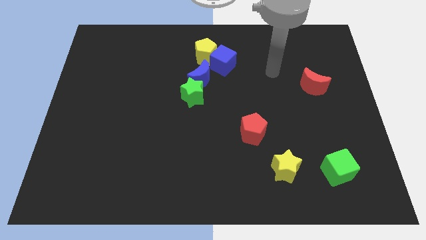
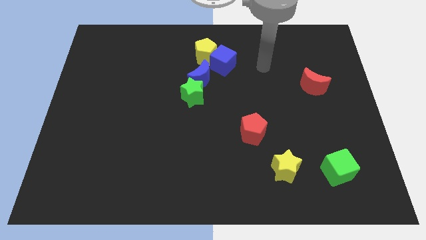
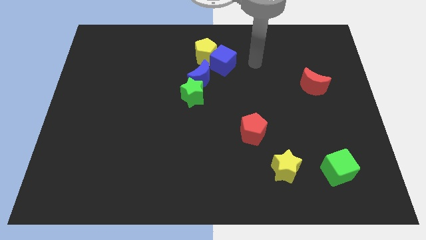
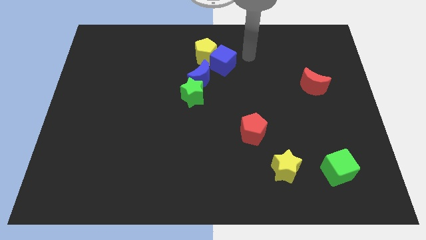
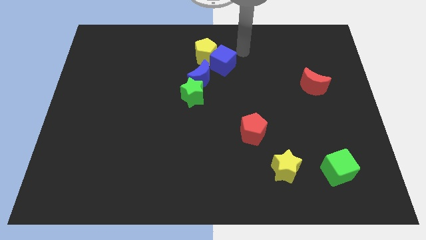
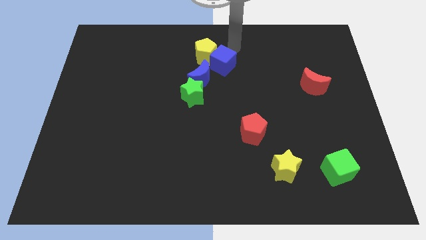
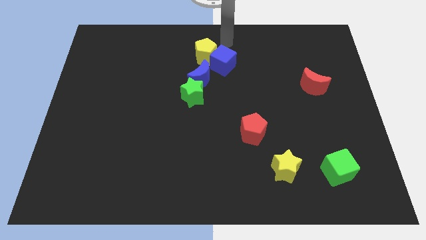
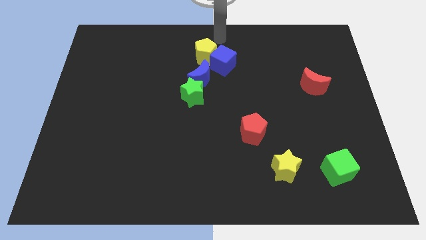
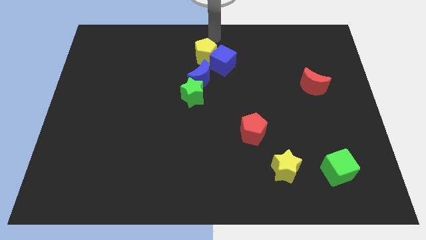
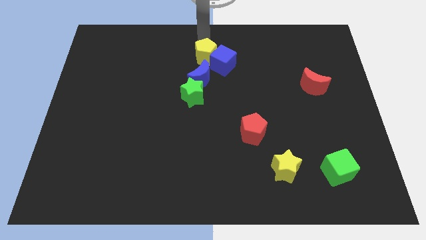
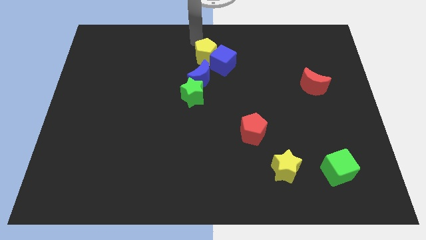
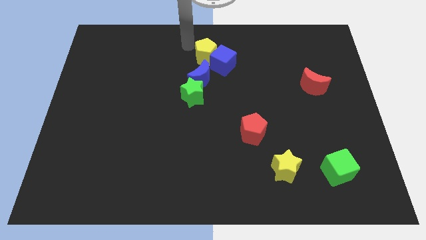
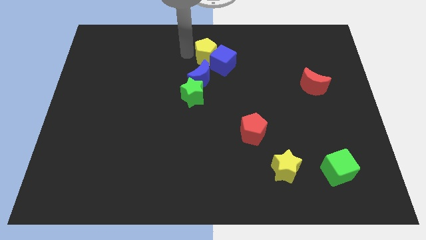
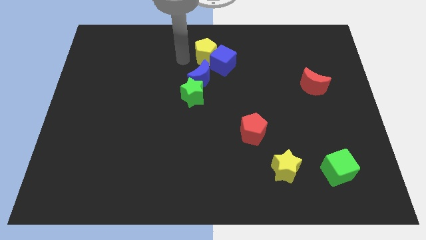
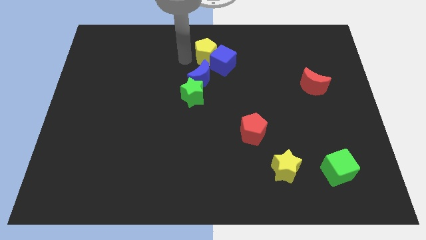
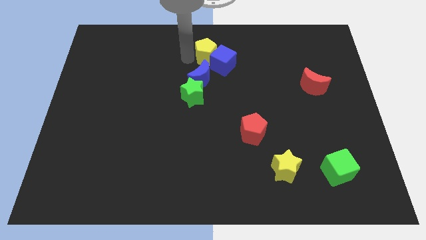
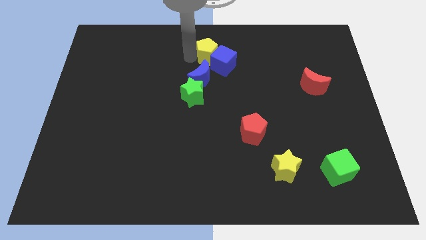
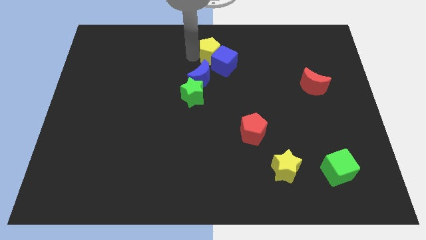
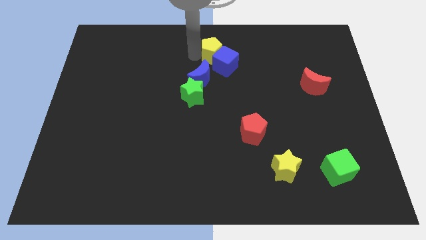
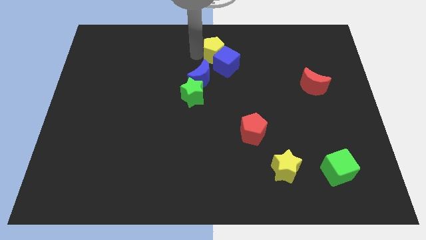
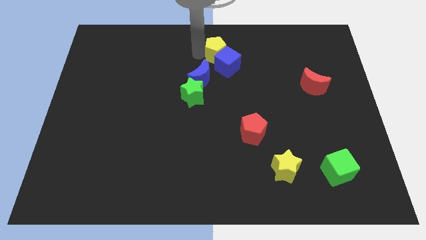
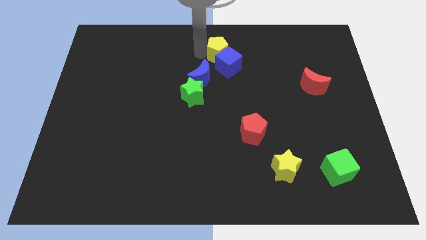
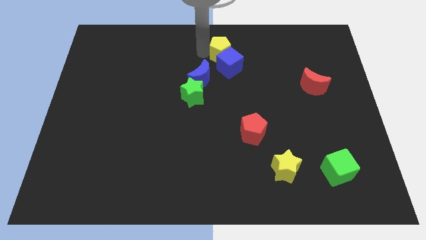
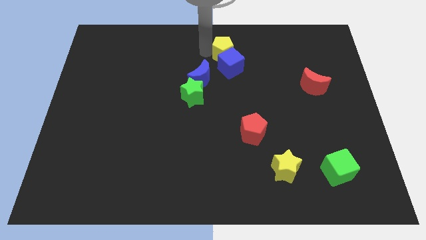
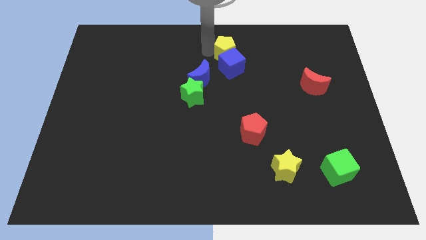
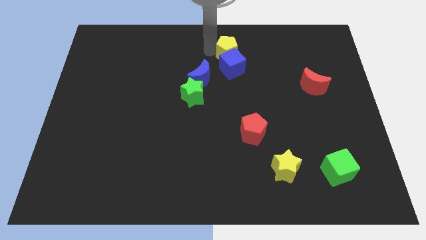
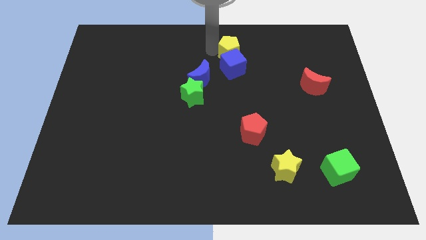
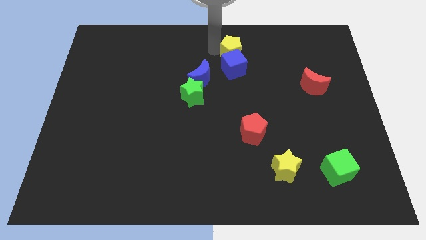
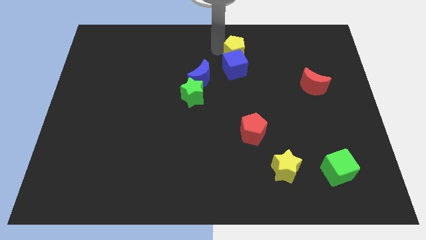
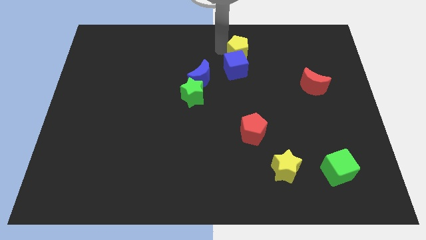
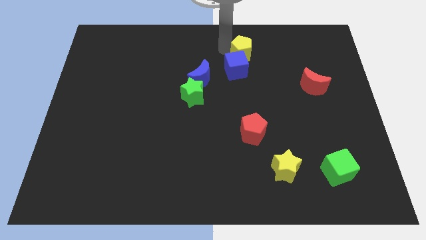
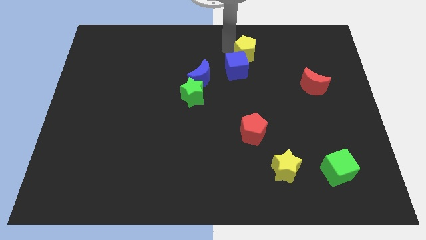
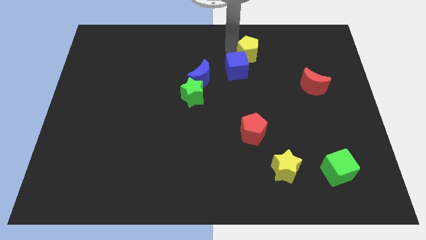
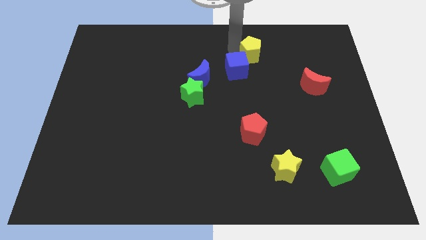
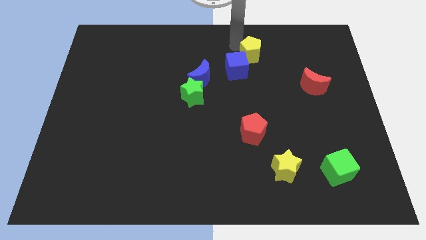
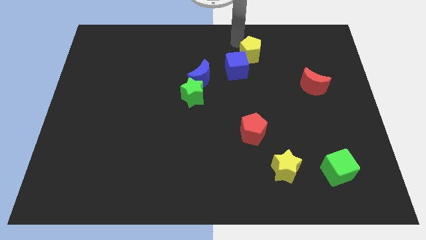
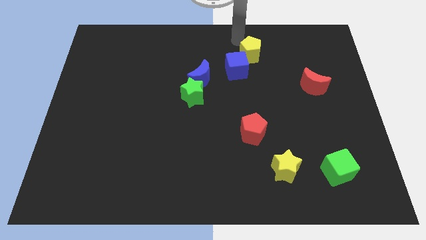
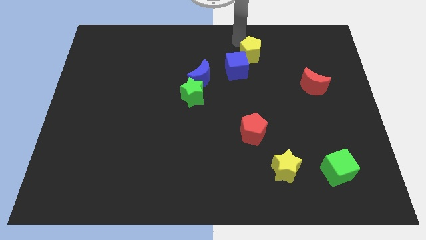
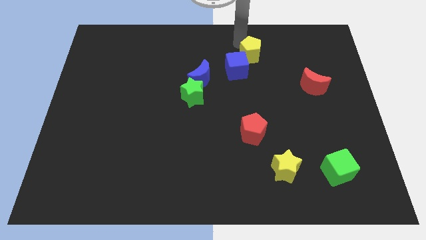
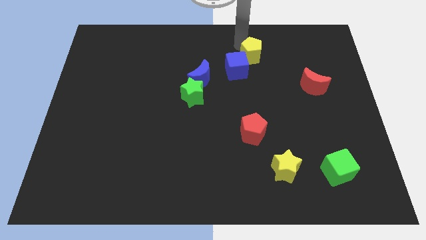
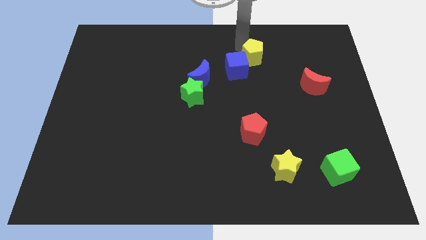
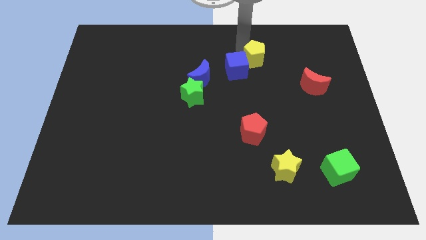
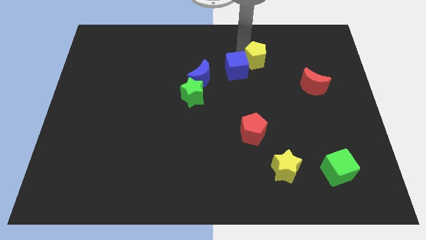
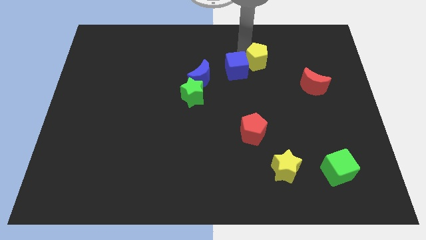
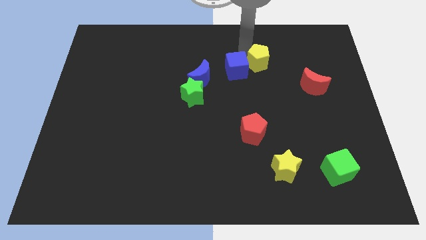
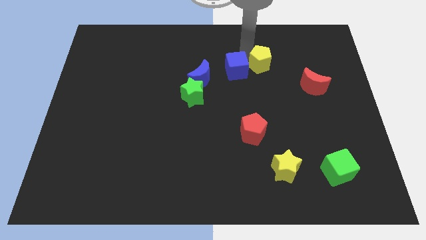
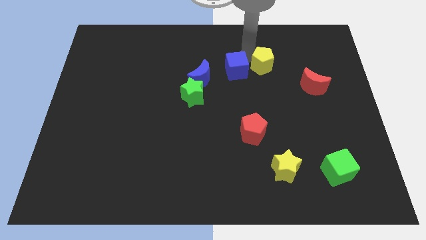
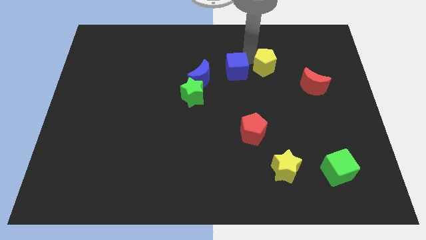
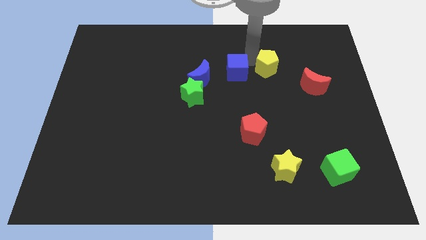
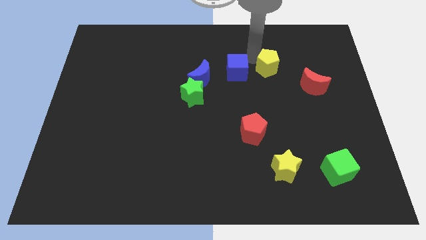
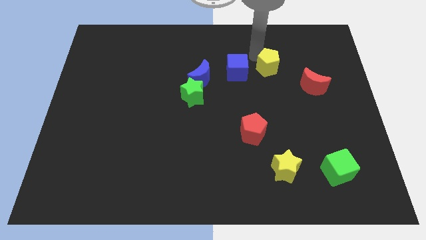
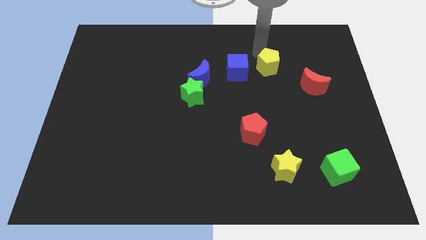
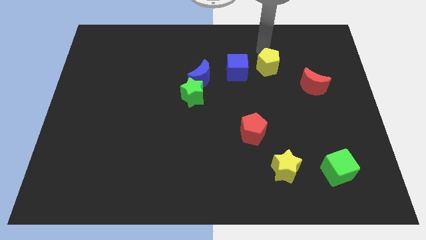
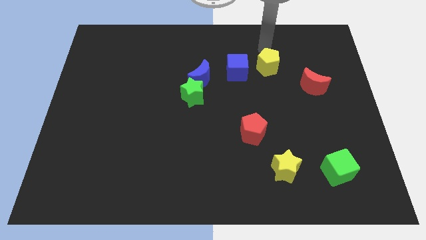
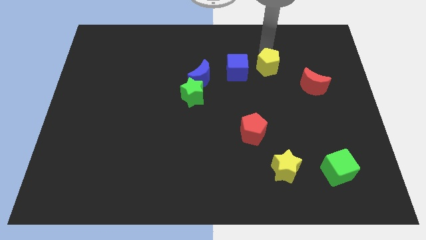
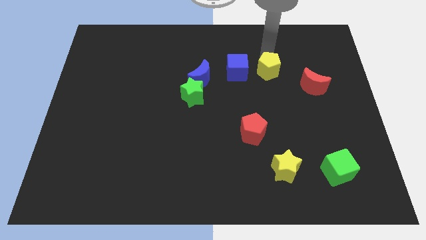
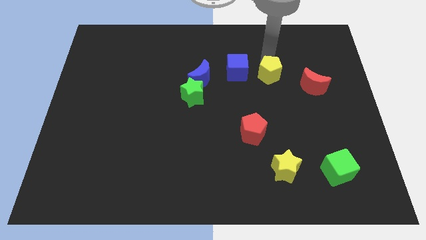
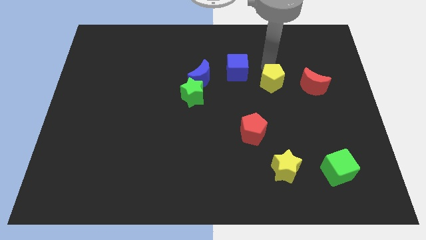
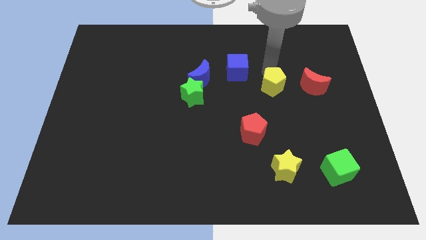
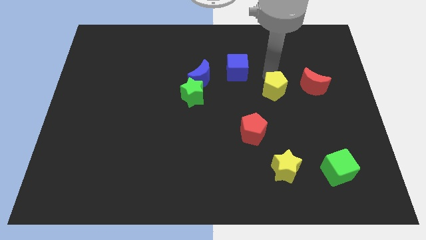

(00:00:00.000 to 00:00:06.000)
move the yellow pentagon down and then to the right

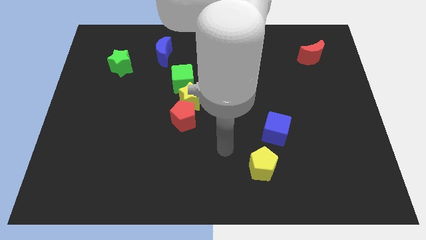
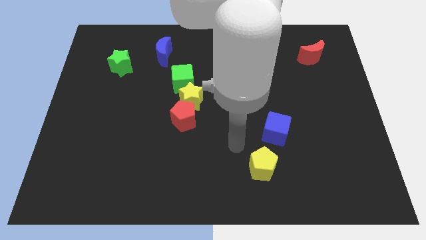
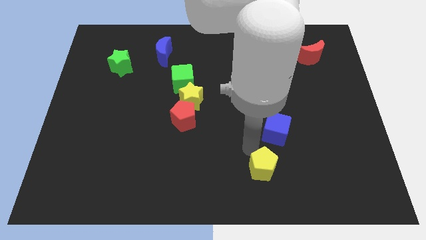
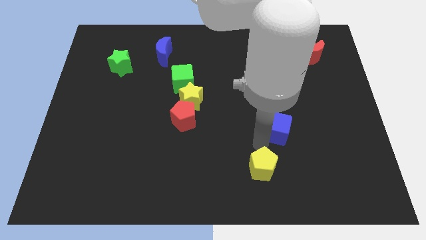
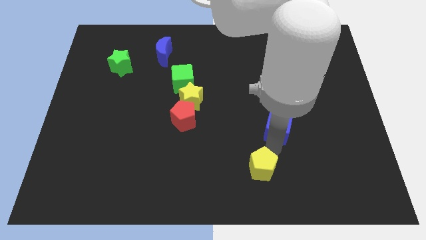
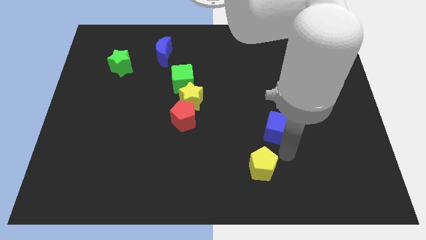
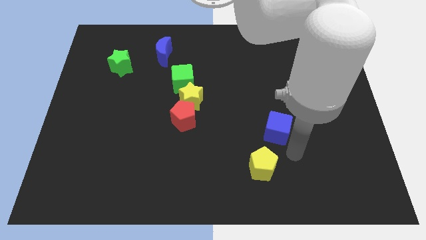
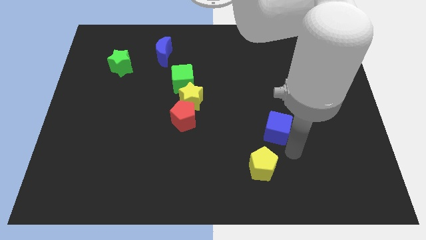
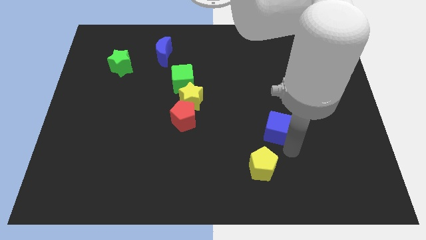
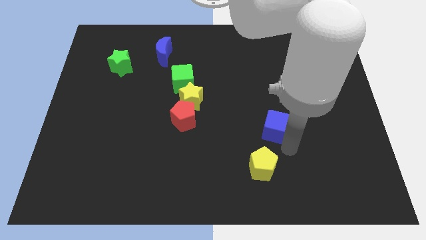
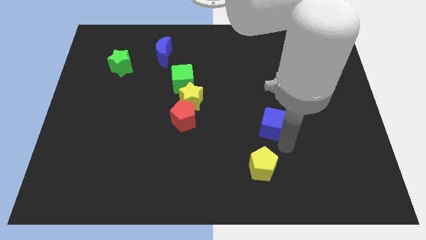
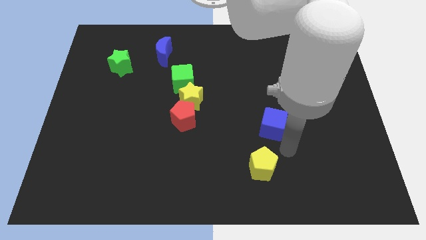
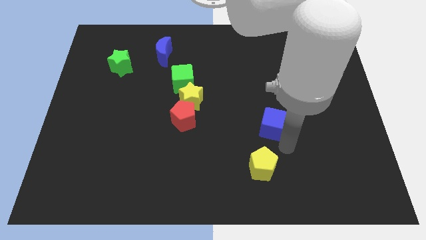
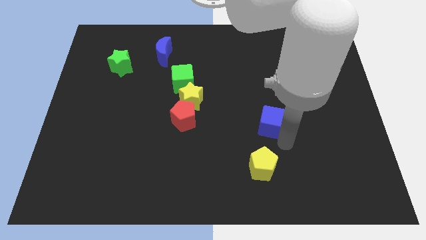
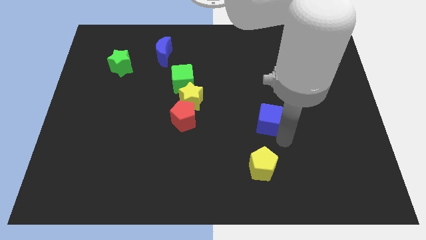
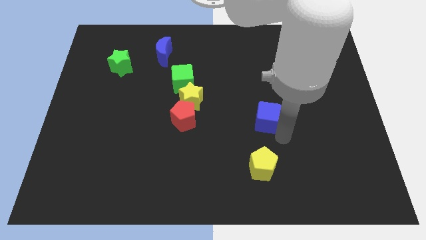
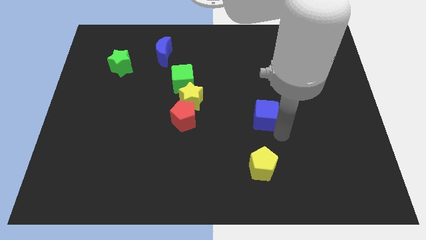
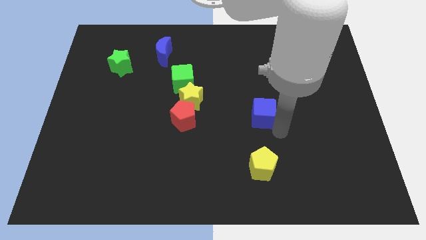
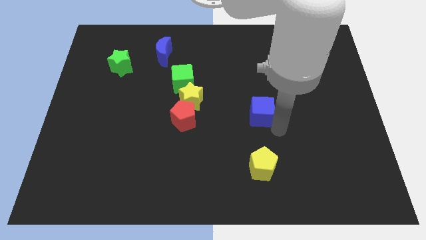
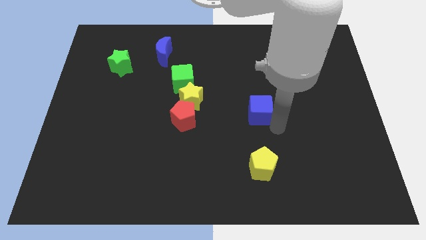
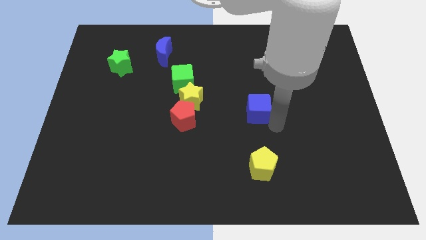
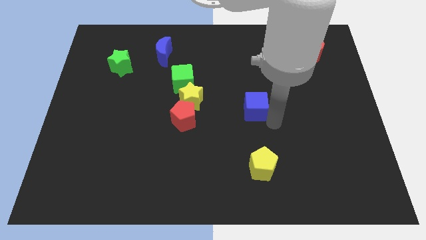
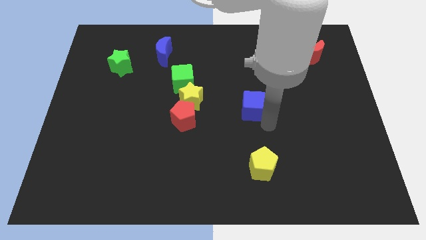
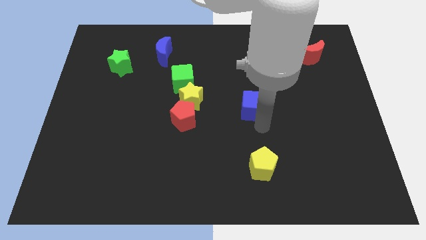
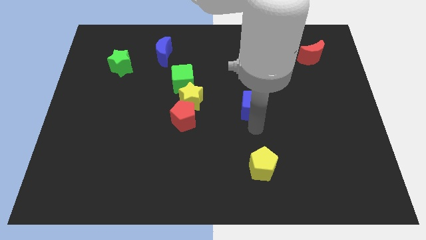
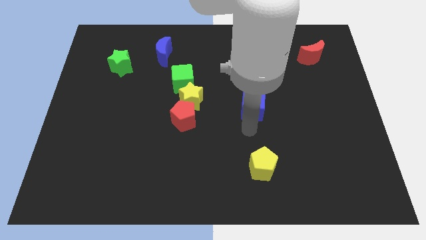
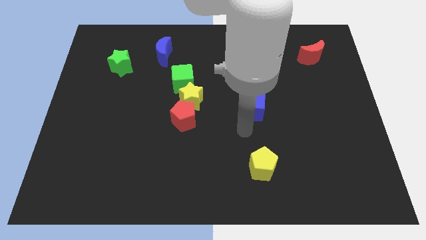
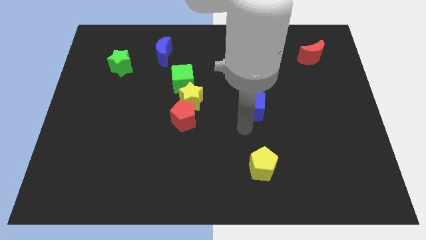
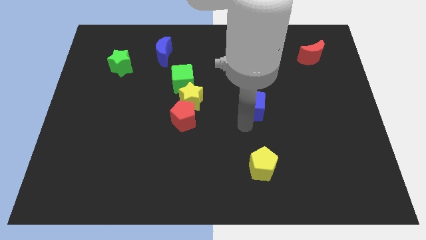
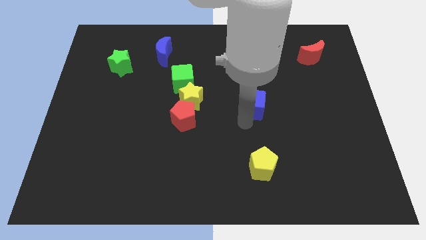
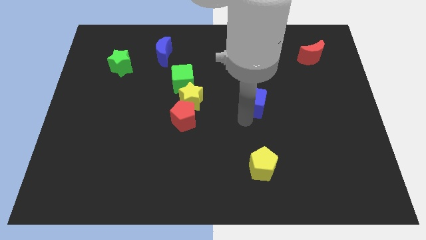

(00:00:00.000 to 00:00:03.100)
push the blue cube somewhat upwards
